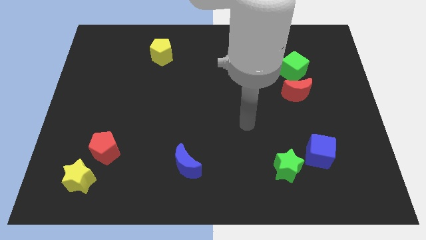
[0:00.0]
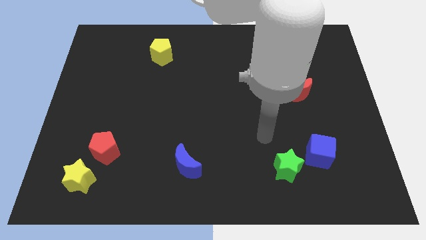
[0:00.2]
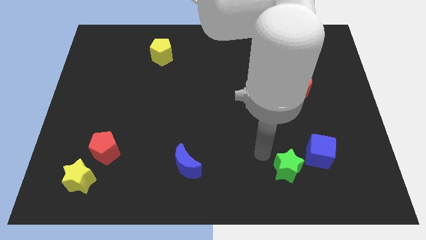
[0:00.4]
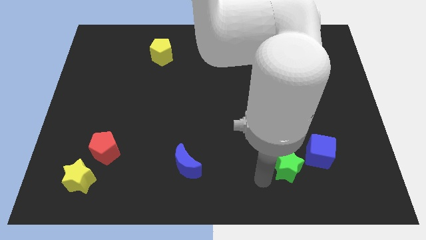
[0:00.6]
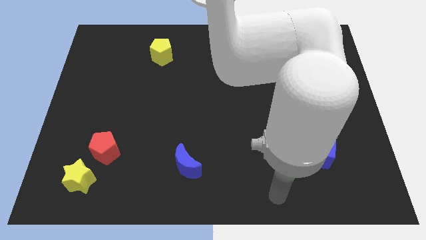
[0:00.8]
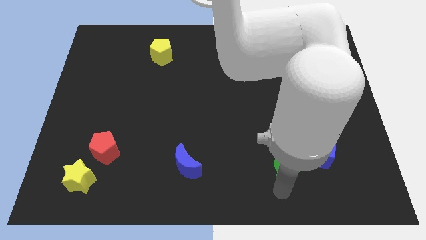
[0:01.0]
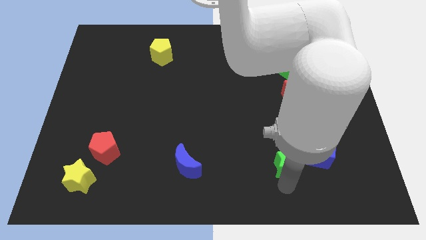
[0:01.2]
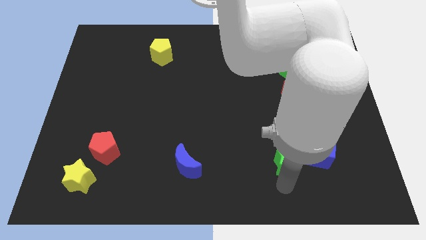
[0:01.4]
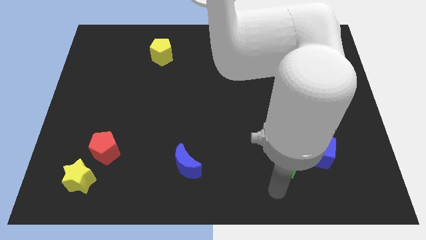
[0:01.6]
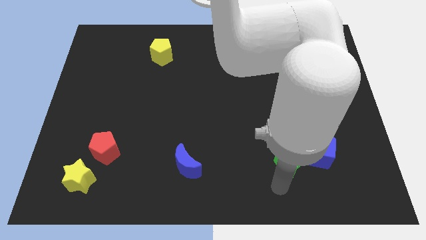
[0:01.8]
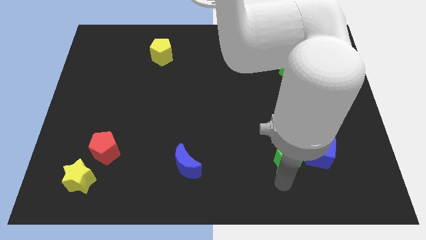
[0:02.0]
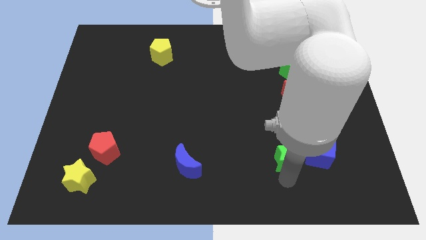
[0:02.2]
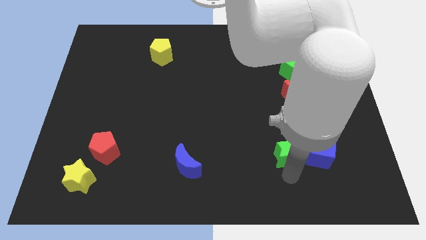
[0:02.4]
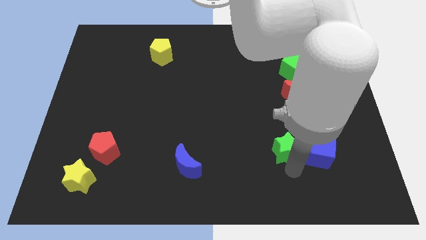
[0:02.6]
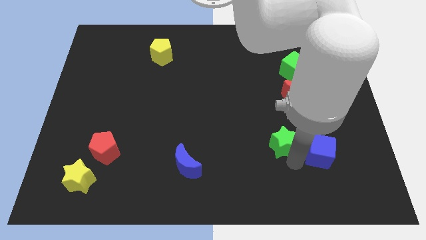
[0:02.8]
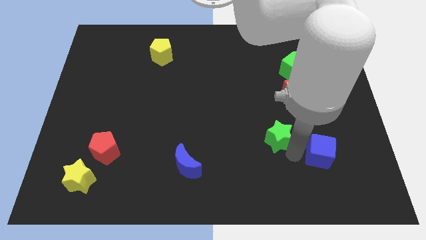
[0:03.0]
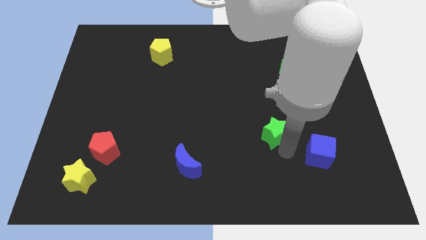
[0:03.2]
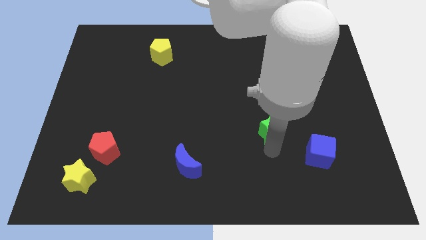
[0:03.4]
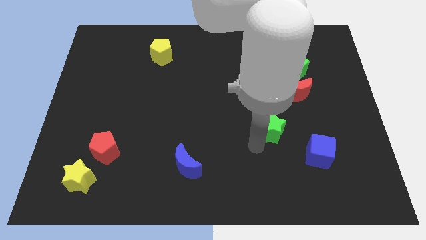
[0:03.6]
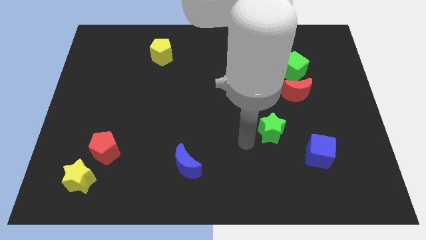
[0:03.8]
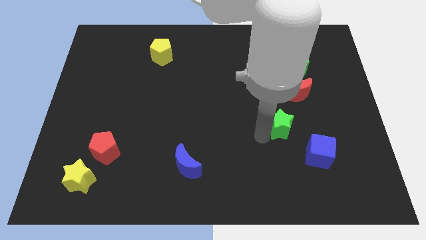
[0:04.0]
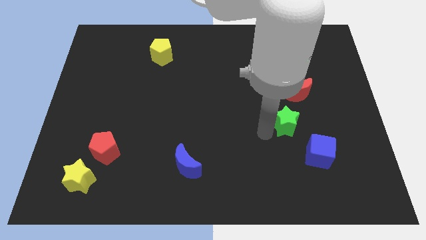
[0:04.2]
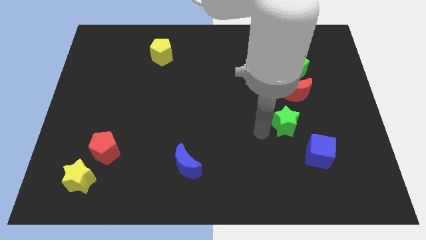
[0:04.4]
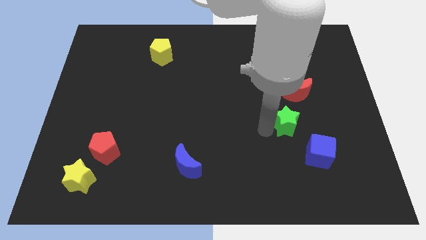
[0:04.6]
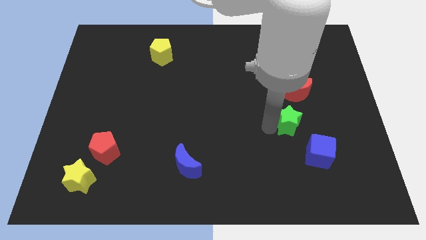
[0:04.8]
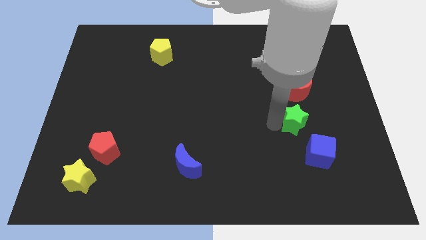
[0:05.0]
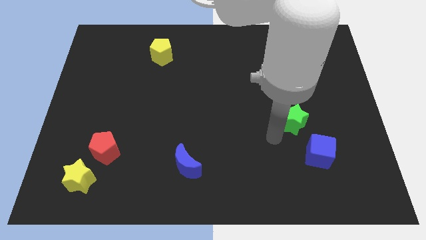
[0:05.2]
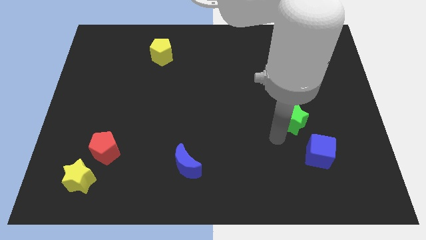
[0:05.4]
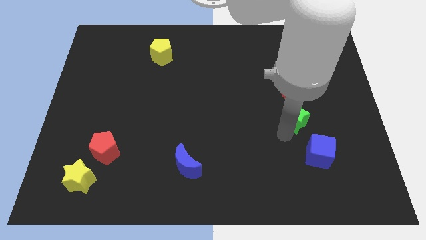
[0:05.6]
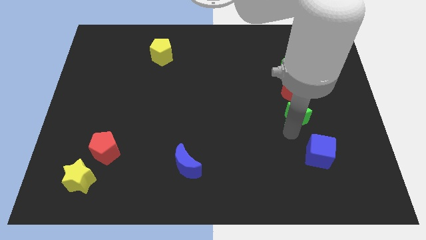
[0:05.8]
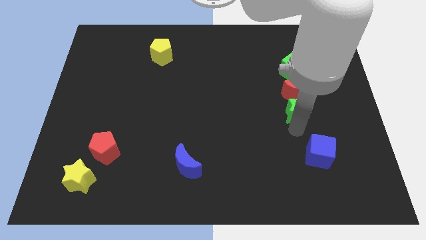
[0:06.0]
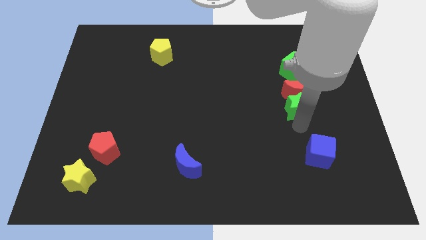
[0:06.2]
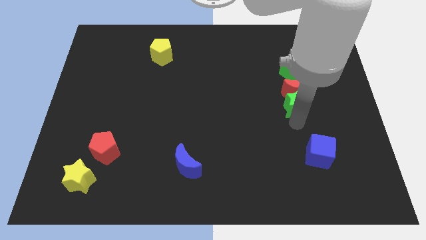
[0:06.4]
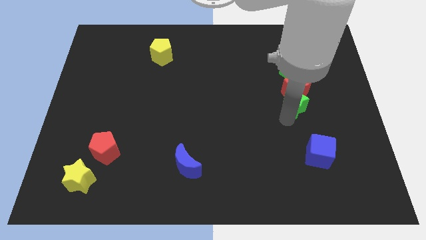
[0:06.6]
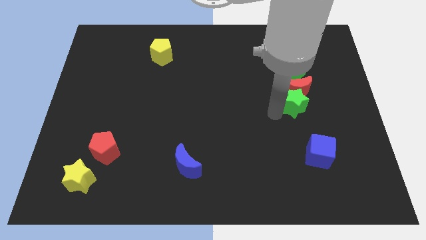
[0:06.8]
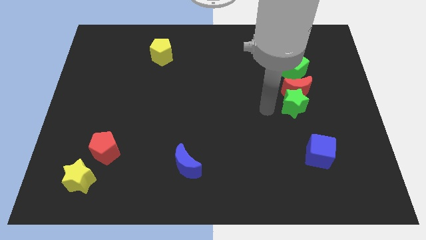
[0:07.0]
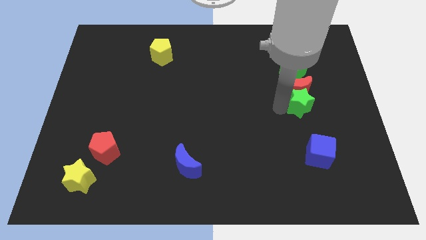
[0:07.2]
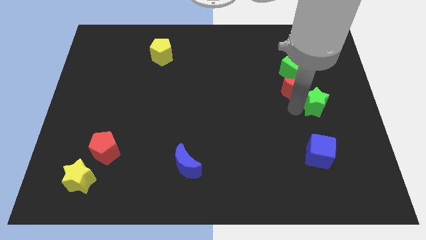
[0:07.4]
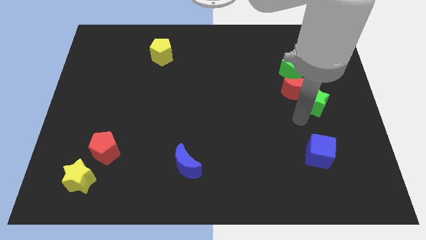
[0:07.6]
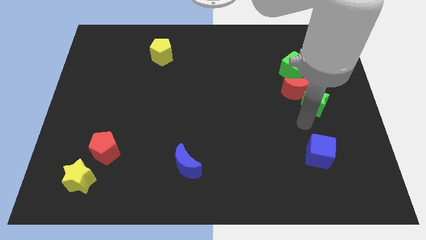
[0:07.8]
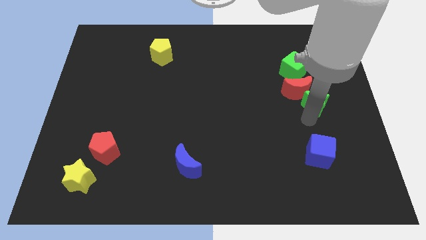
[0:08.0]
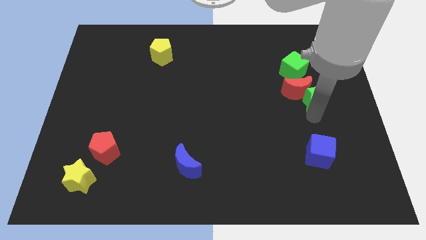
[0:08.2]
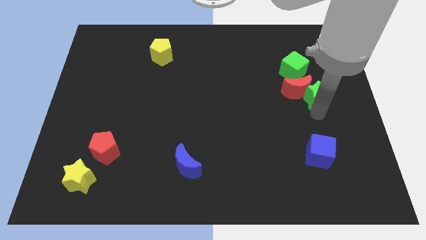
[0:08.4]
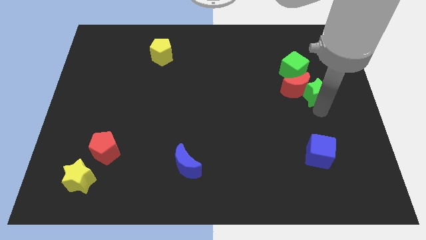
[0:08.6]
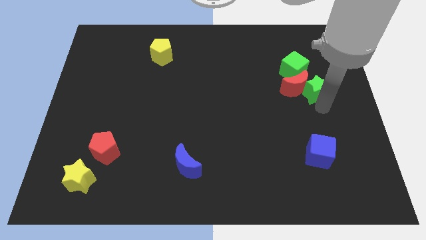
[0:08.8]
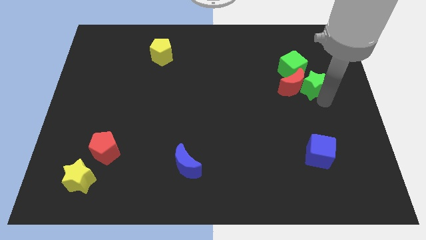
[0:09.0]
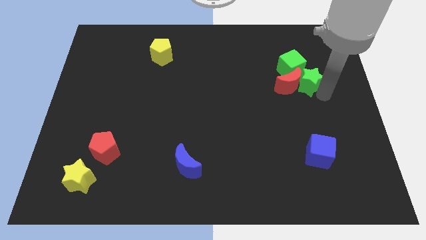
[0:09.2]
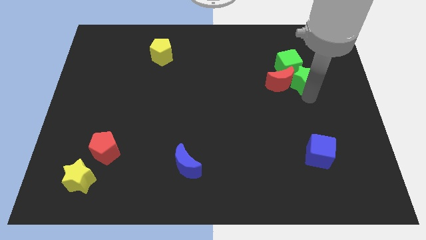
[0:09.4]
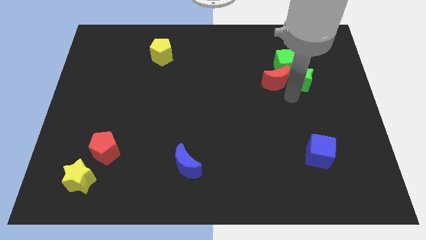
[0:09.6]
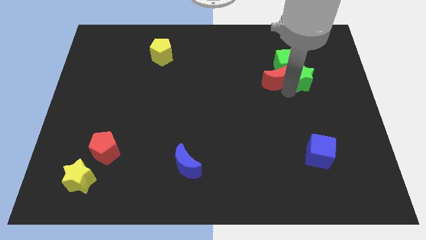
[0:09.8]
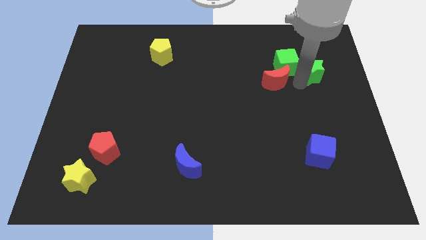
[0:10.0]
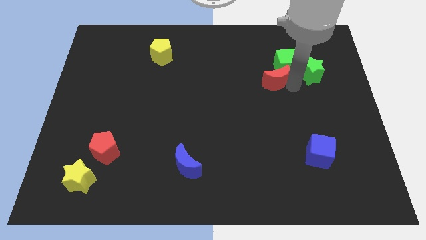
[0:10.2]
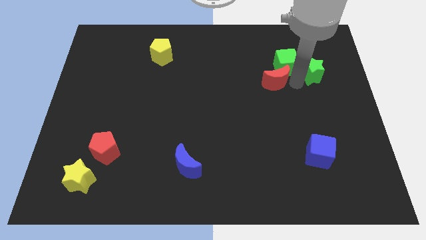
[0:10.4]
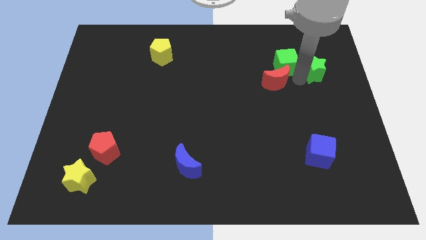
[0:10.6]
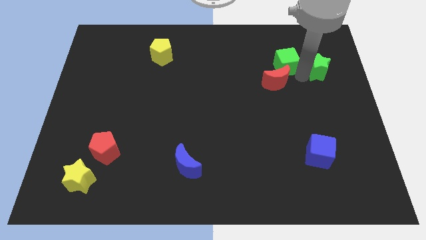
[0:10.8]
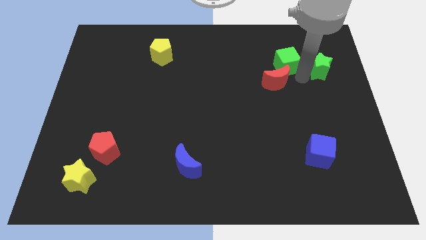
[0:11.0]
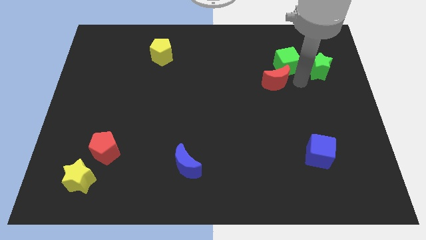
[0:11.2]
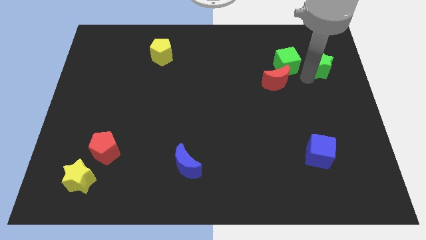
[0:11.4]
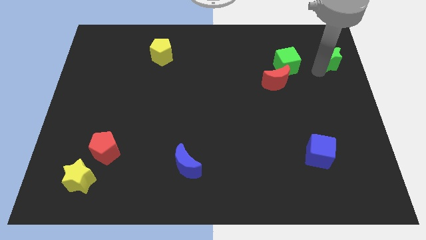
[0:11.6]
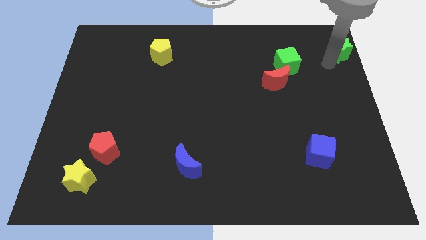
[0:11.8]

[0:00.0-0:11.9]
put the green star to the top right of the board
